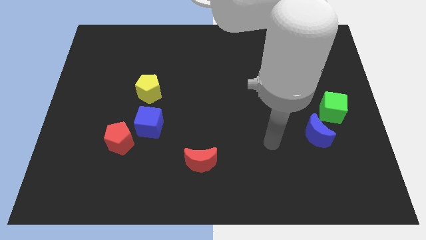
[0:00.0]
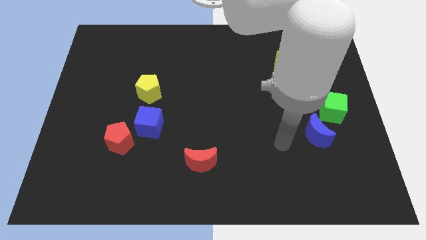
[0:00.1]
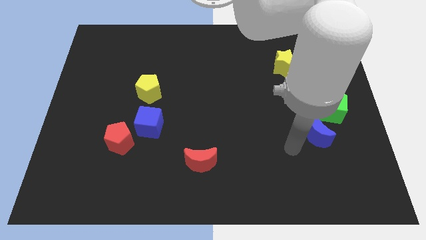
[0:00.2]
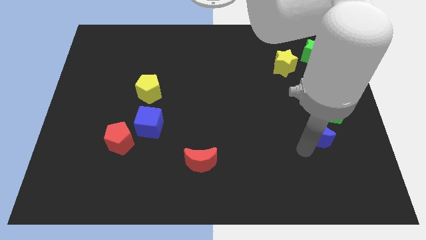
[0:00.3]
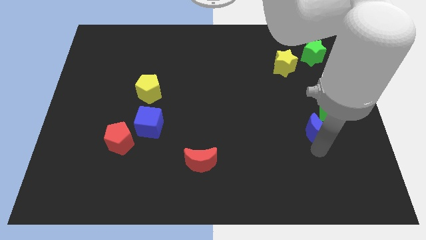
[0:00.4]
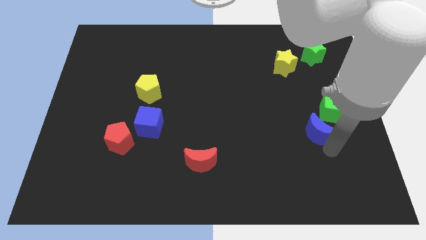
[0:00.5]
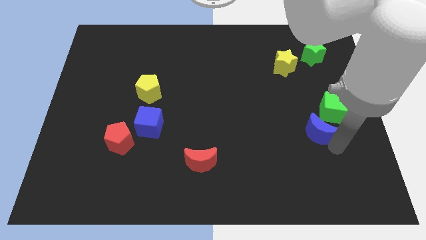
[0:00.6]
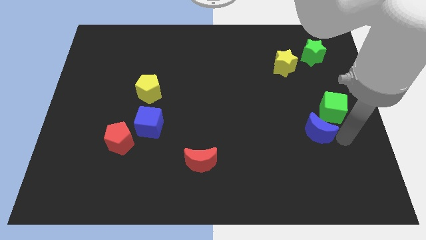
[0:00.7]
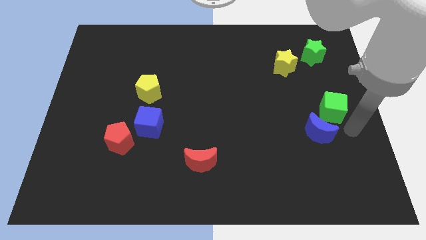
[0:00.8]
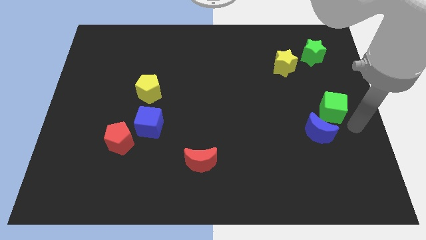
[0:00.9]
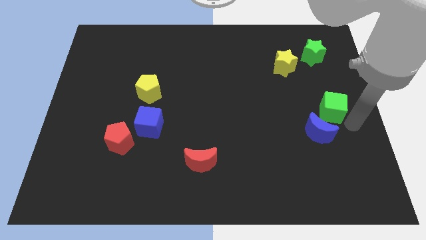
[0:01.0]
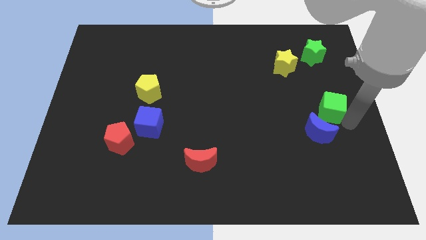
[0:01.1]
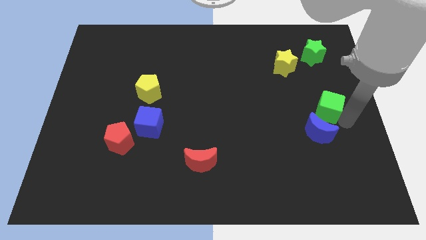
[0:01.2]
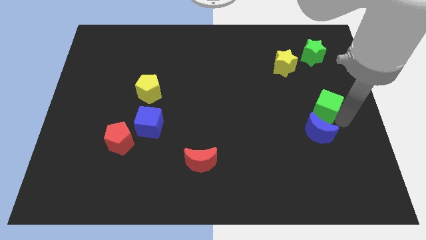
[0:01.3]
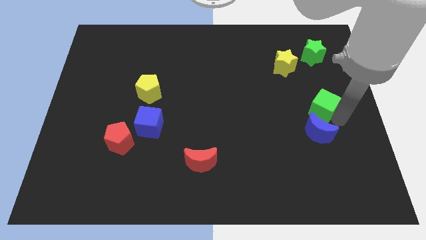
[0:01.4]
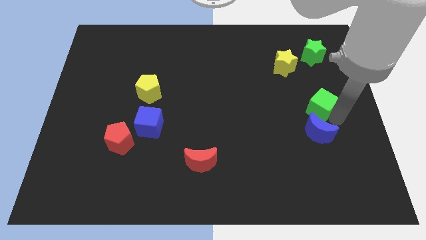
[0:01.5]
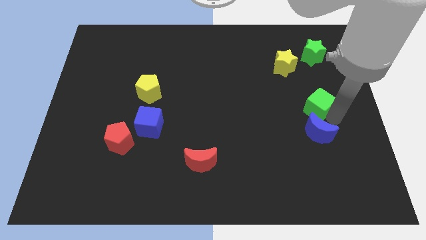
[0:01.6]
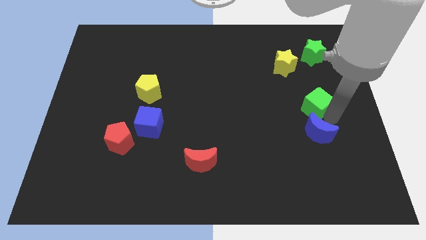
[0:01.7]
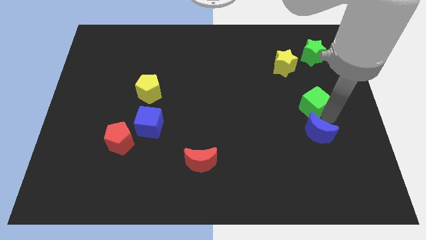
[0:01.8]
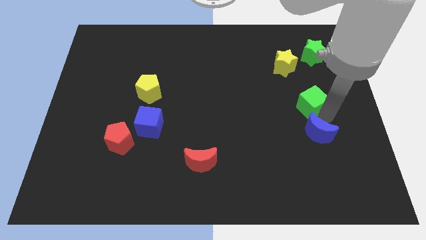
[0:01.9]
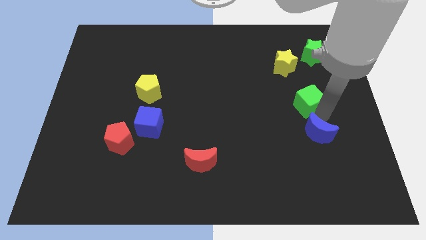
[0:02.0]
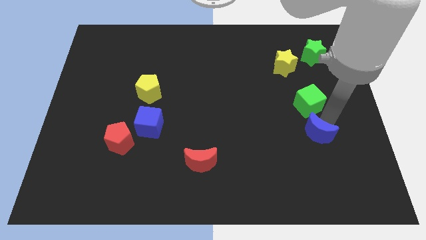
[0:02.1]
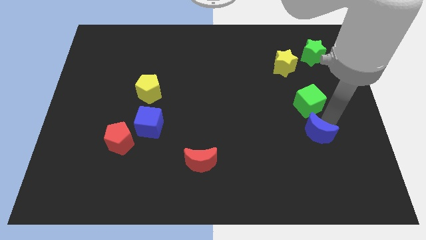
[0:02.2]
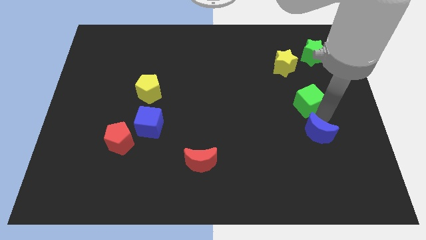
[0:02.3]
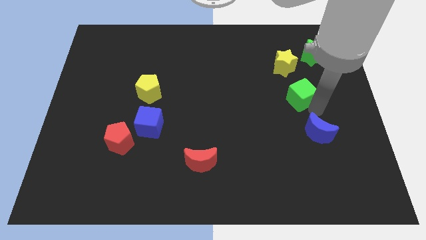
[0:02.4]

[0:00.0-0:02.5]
slide the green cube slightly upwards and to the left

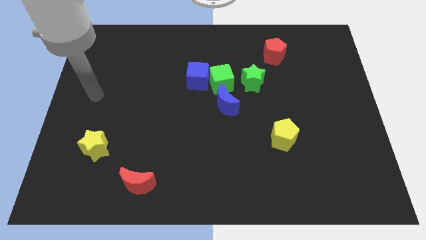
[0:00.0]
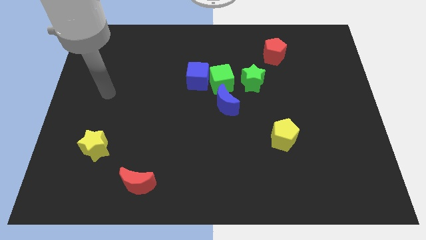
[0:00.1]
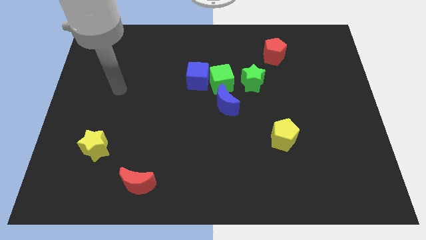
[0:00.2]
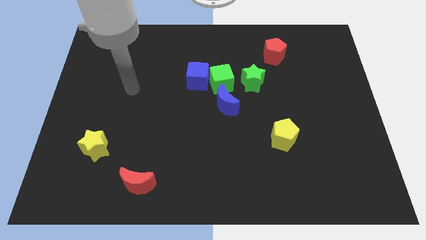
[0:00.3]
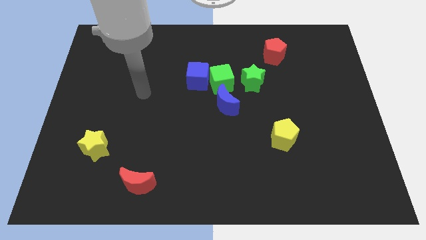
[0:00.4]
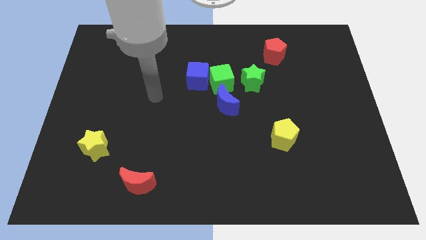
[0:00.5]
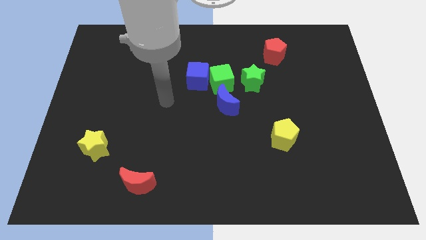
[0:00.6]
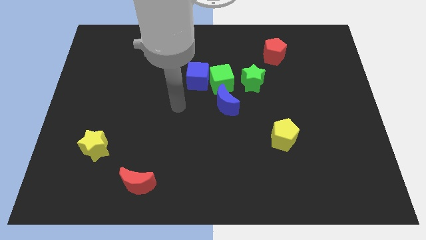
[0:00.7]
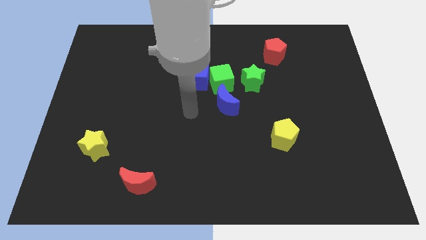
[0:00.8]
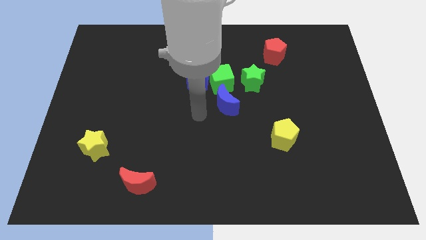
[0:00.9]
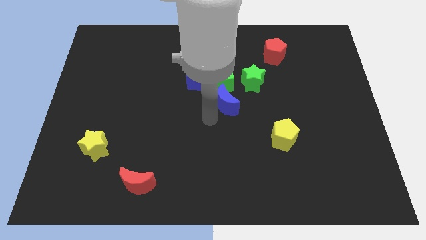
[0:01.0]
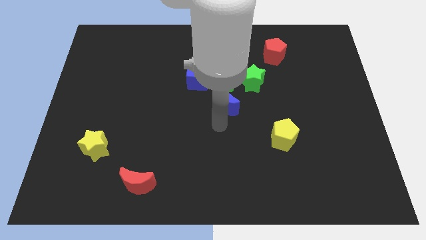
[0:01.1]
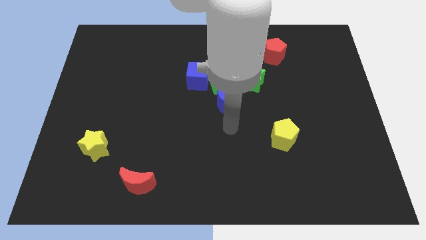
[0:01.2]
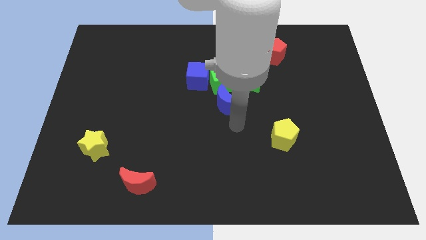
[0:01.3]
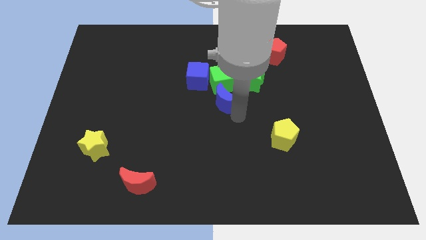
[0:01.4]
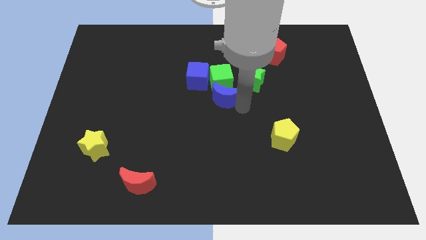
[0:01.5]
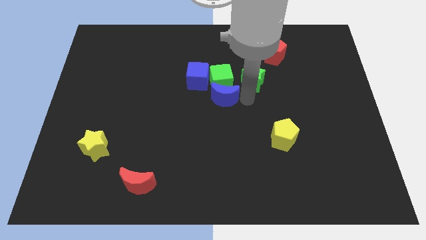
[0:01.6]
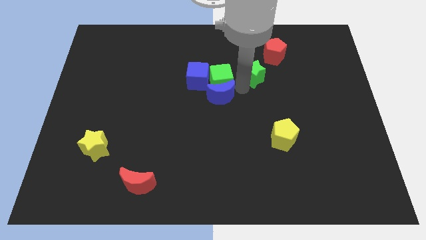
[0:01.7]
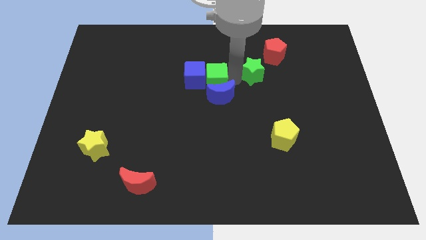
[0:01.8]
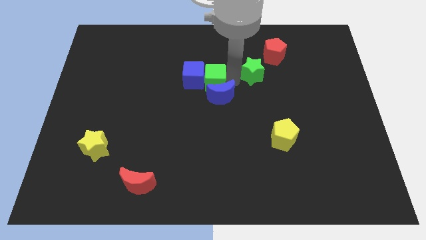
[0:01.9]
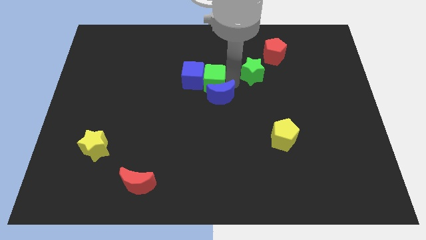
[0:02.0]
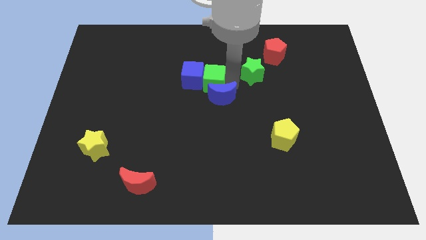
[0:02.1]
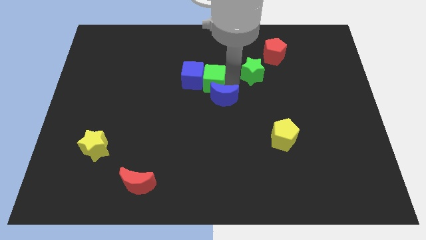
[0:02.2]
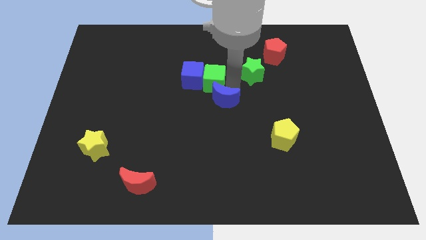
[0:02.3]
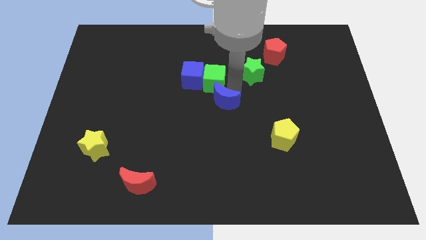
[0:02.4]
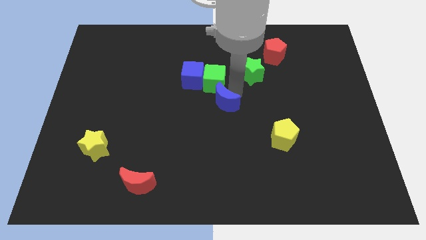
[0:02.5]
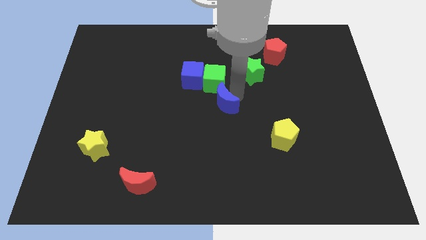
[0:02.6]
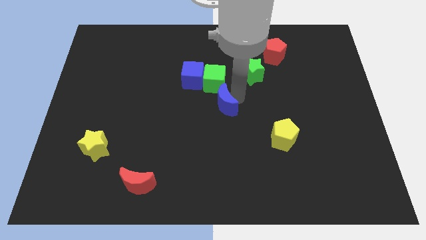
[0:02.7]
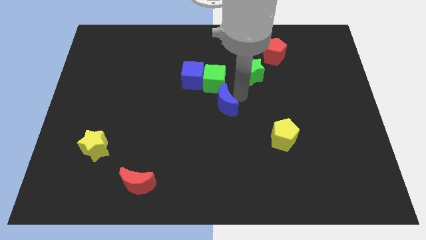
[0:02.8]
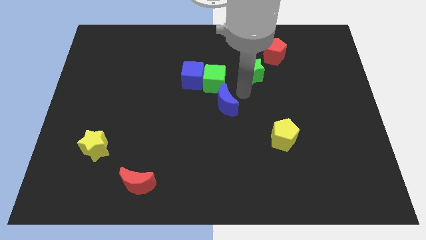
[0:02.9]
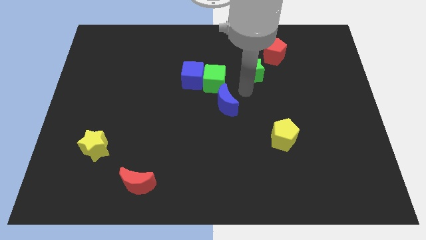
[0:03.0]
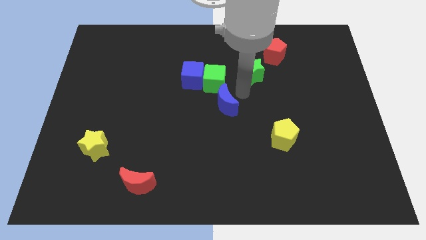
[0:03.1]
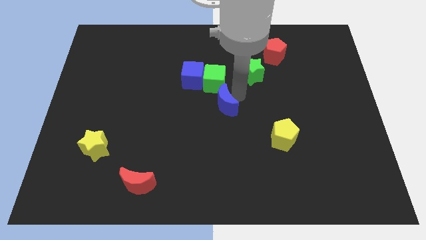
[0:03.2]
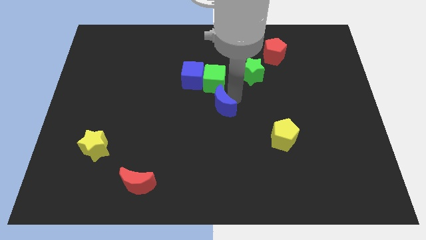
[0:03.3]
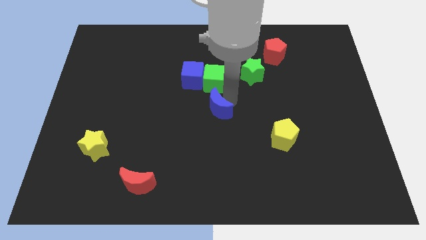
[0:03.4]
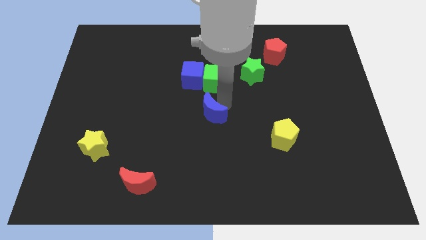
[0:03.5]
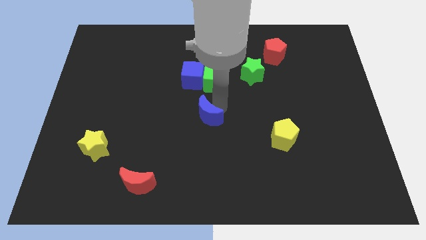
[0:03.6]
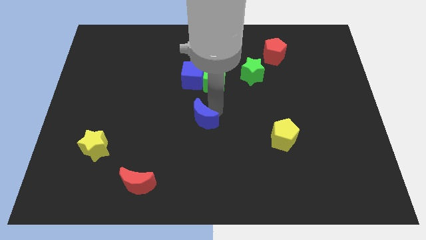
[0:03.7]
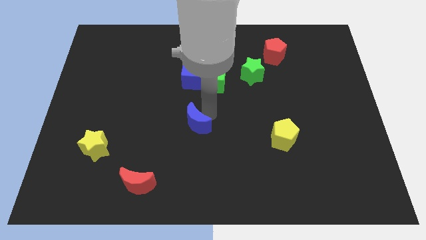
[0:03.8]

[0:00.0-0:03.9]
slide the blue moon slightly diagonally downwards and left

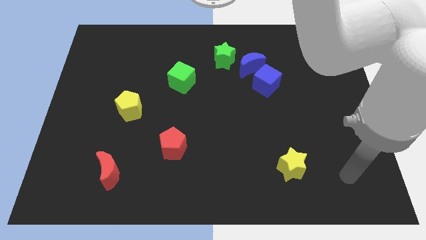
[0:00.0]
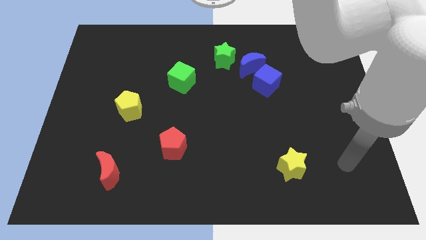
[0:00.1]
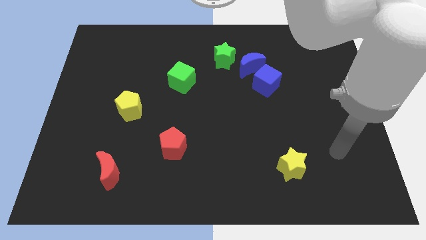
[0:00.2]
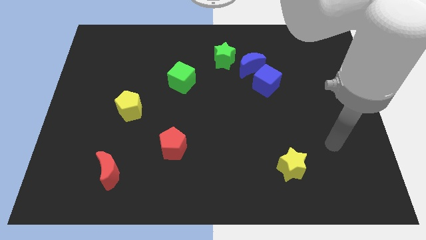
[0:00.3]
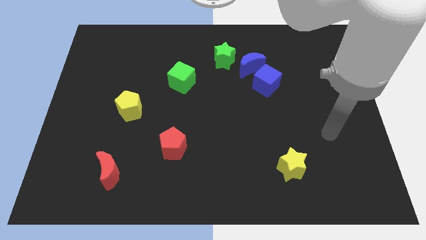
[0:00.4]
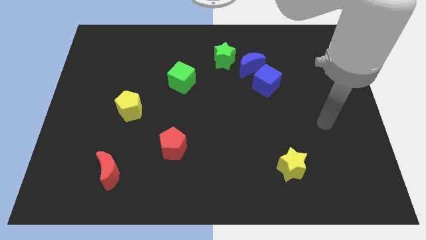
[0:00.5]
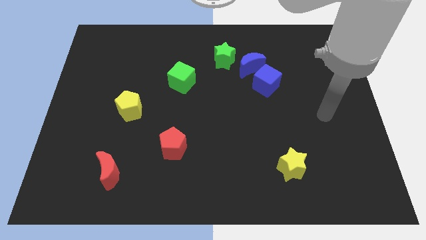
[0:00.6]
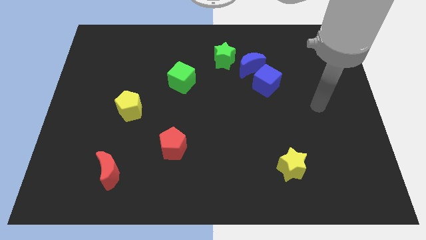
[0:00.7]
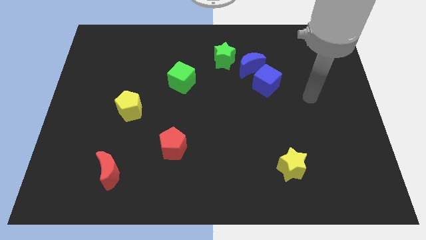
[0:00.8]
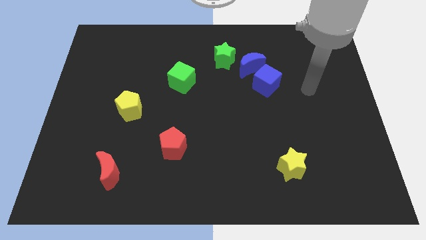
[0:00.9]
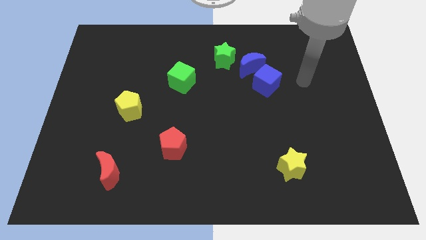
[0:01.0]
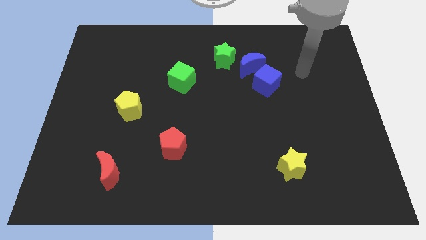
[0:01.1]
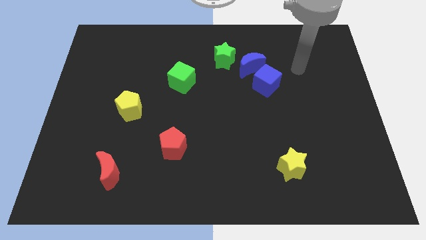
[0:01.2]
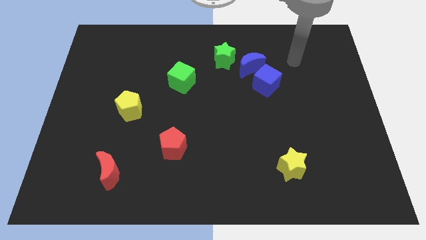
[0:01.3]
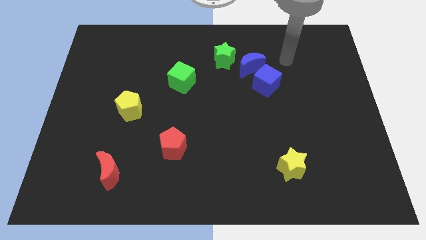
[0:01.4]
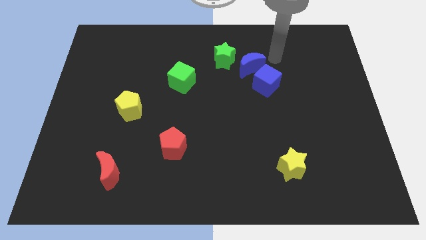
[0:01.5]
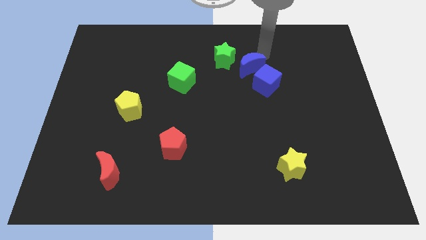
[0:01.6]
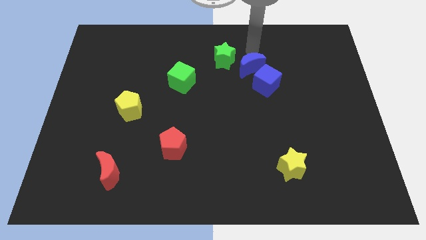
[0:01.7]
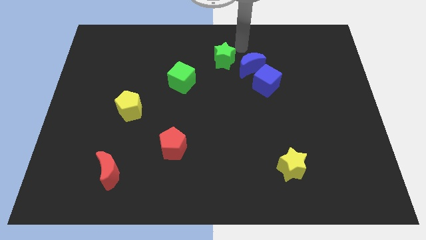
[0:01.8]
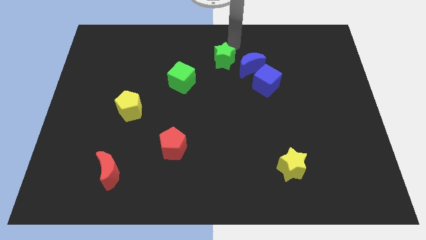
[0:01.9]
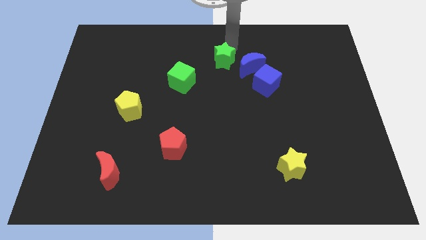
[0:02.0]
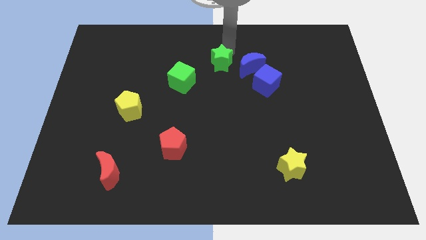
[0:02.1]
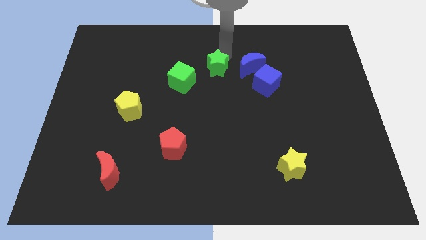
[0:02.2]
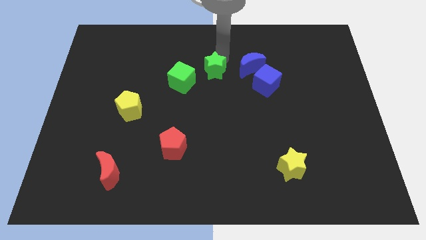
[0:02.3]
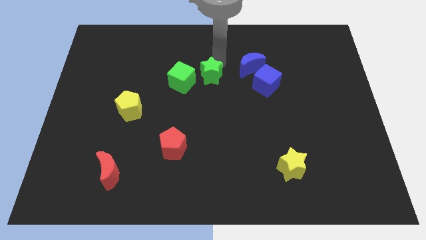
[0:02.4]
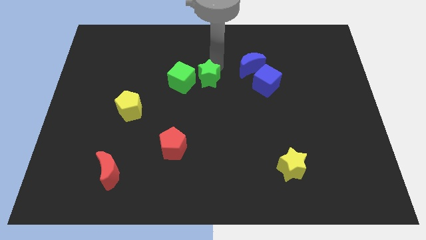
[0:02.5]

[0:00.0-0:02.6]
slightly move the green star down and to the left
